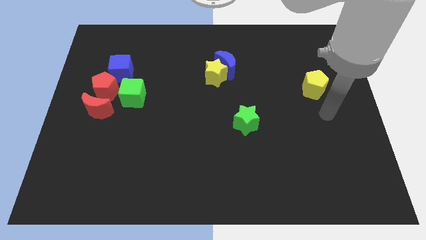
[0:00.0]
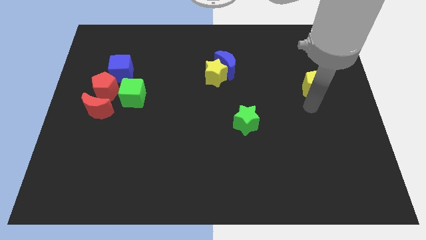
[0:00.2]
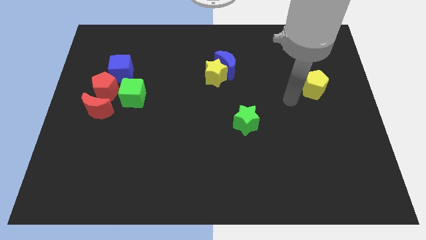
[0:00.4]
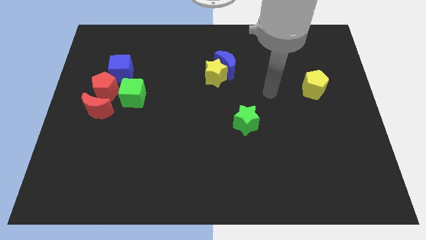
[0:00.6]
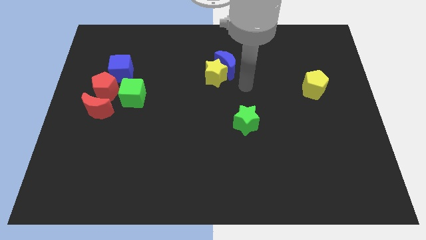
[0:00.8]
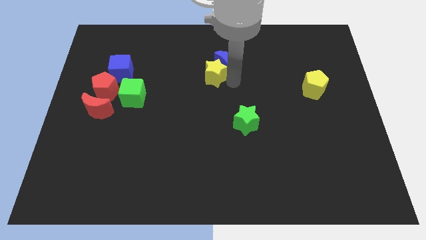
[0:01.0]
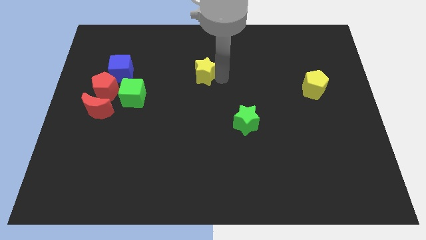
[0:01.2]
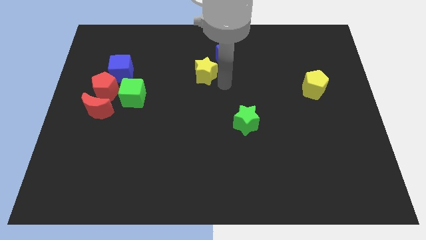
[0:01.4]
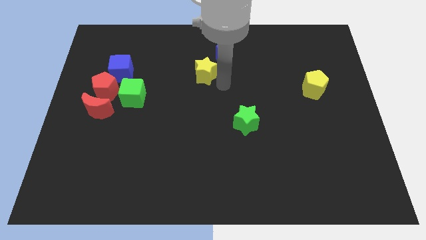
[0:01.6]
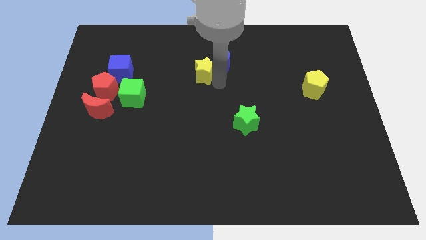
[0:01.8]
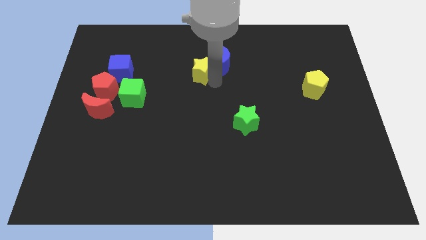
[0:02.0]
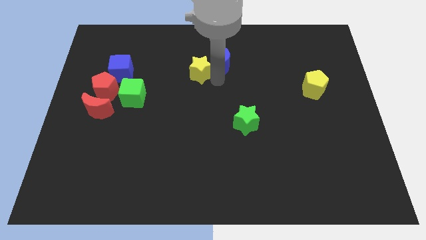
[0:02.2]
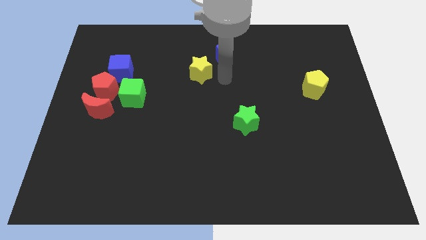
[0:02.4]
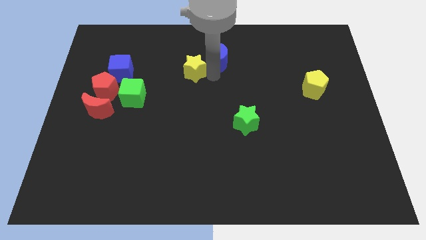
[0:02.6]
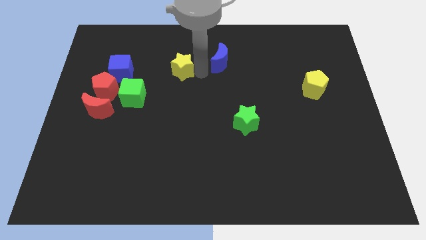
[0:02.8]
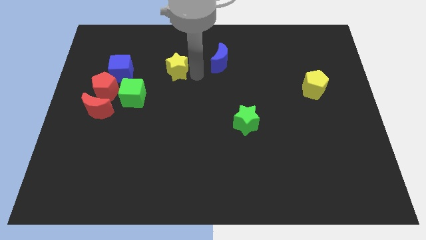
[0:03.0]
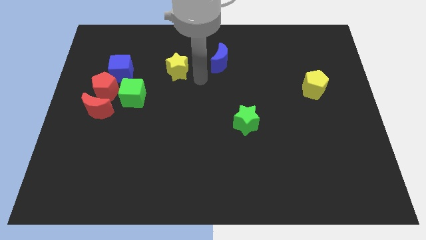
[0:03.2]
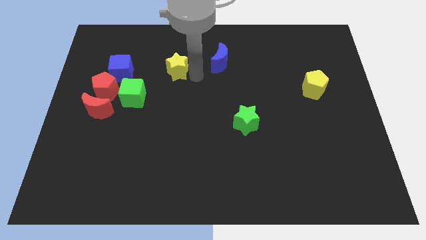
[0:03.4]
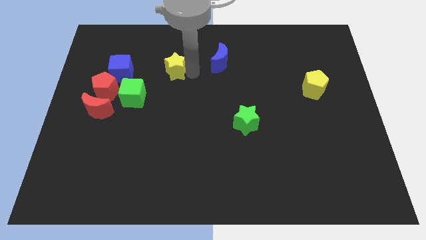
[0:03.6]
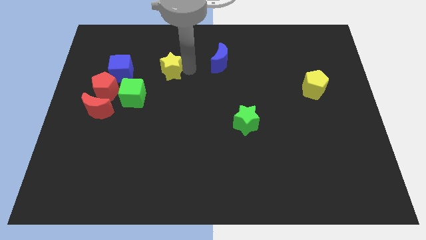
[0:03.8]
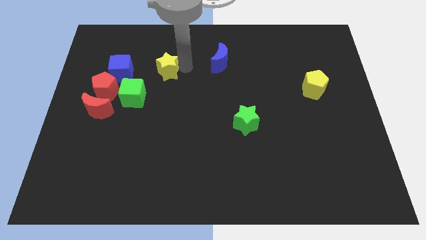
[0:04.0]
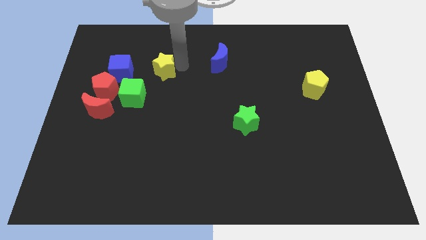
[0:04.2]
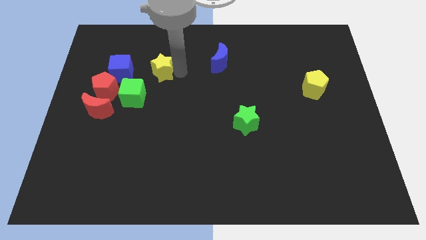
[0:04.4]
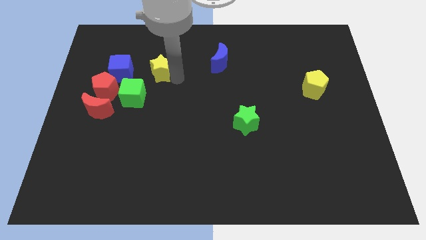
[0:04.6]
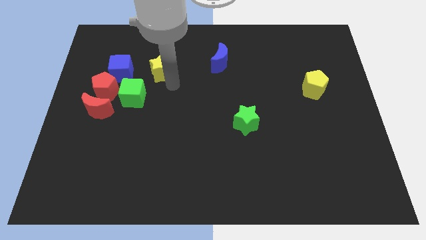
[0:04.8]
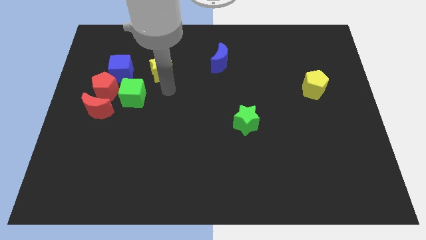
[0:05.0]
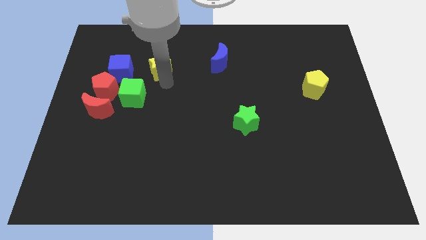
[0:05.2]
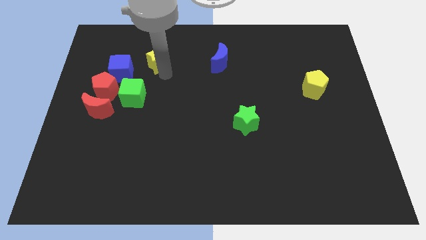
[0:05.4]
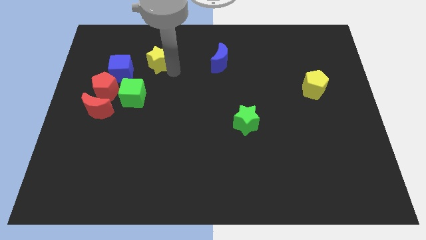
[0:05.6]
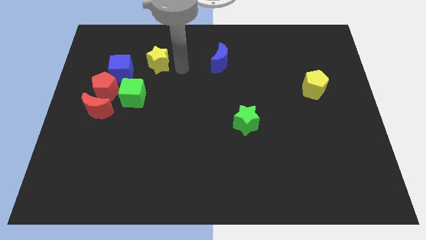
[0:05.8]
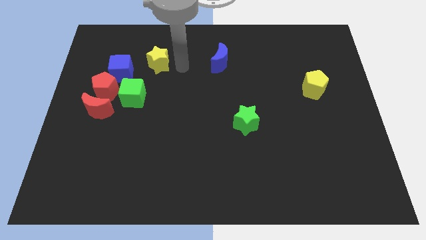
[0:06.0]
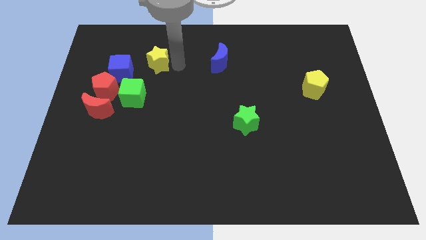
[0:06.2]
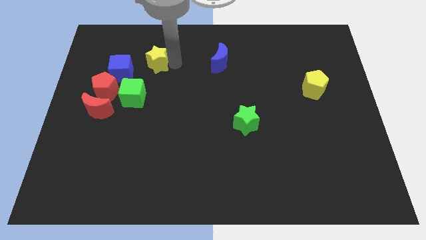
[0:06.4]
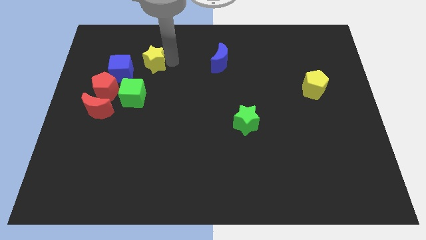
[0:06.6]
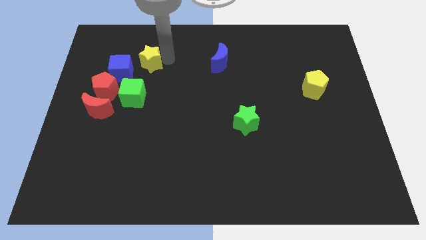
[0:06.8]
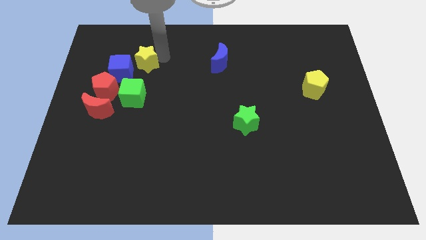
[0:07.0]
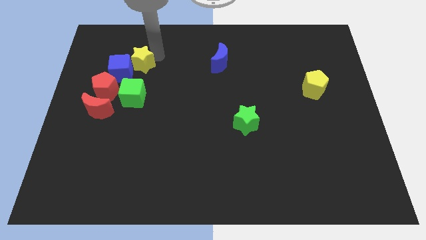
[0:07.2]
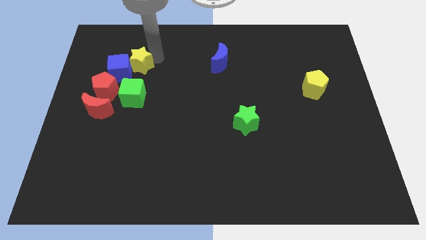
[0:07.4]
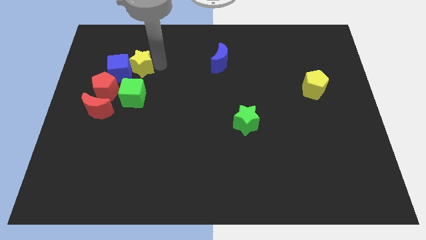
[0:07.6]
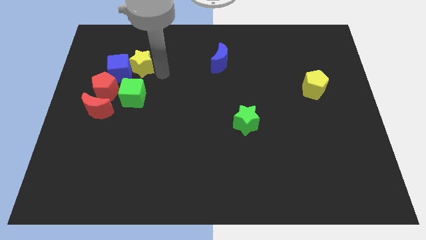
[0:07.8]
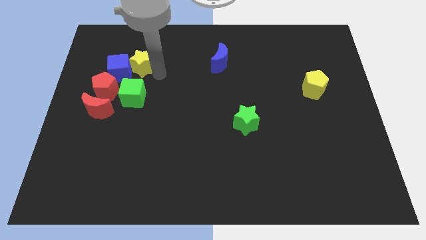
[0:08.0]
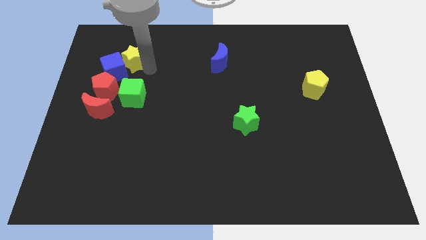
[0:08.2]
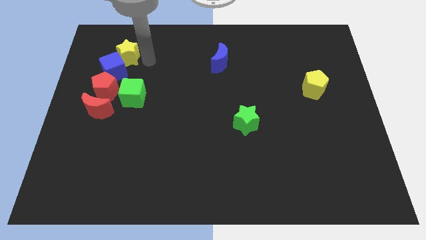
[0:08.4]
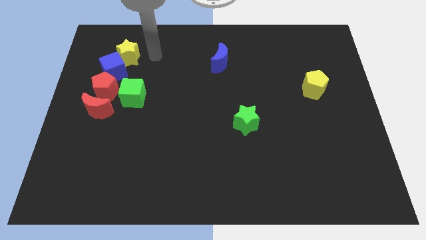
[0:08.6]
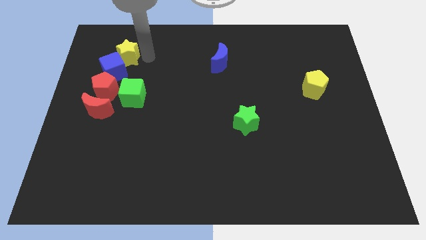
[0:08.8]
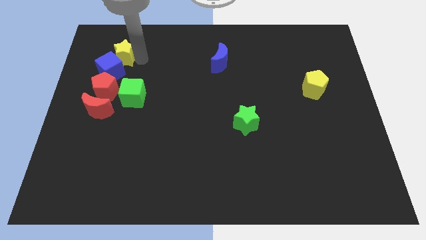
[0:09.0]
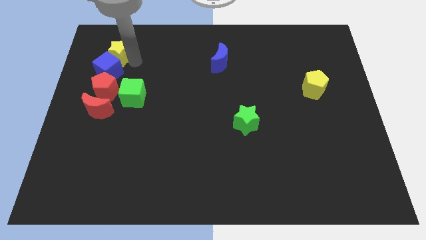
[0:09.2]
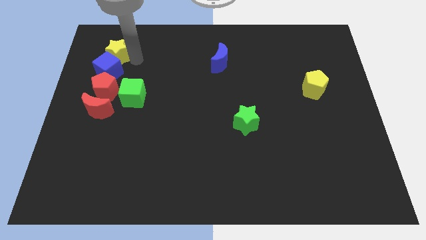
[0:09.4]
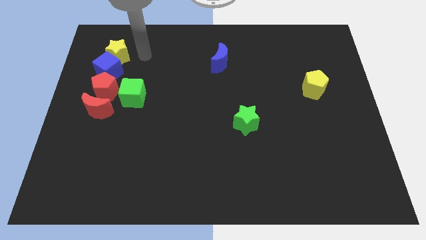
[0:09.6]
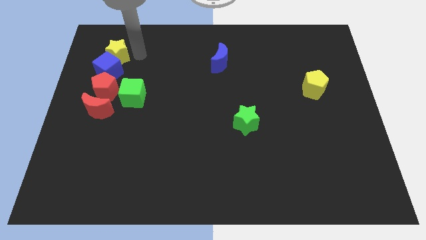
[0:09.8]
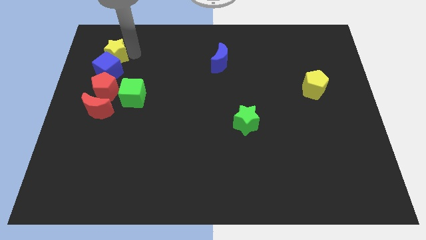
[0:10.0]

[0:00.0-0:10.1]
push the yellow star to the top left side of the blue cube

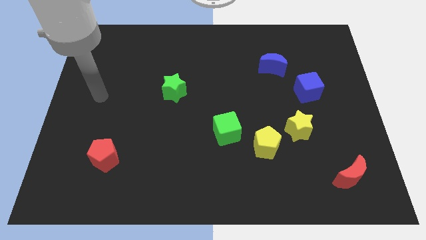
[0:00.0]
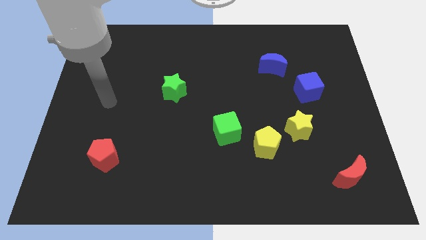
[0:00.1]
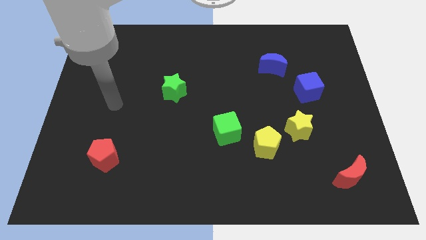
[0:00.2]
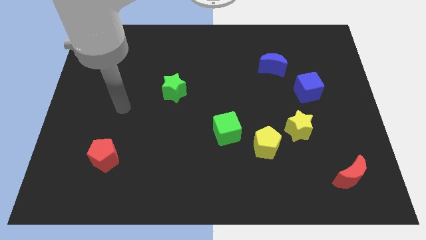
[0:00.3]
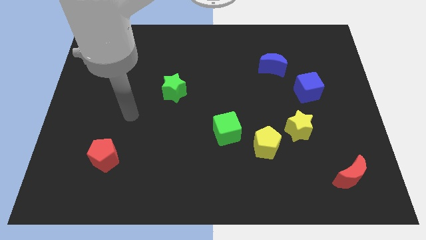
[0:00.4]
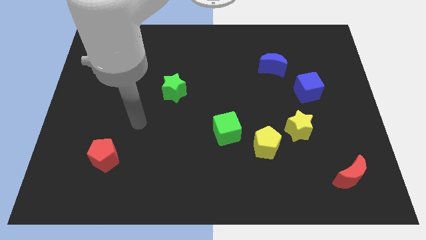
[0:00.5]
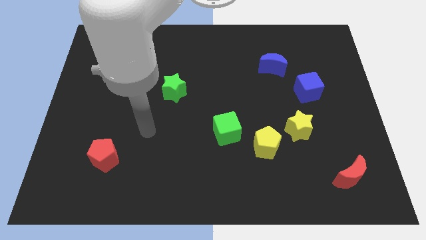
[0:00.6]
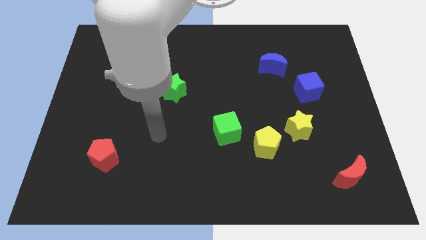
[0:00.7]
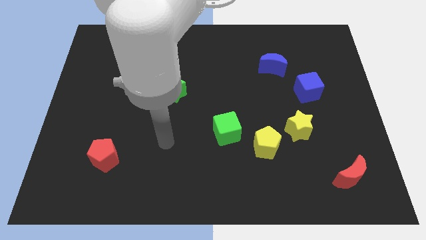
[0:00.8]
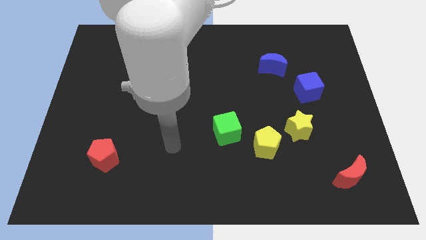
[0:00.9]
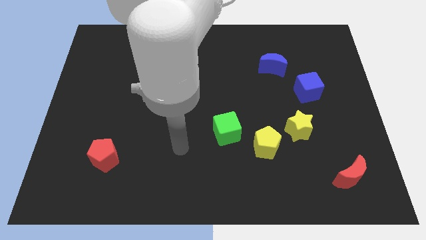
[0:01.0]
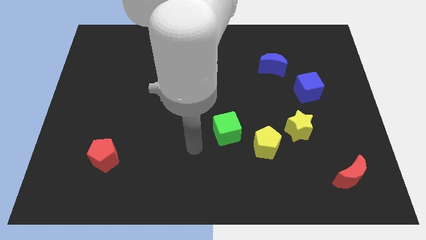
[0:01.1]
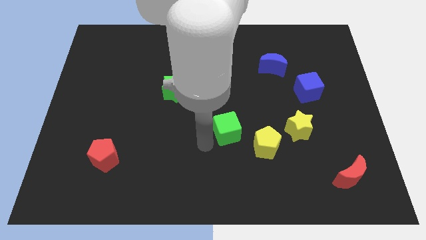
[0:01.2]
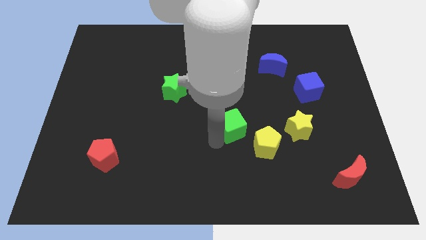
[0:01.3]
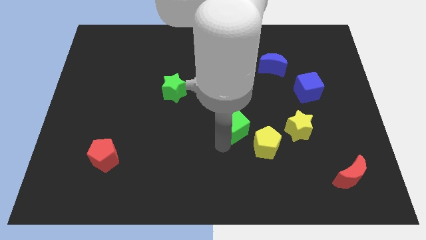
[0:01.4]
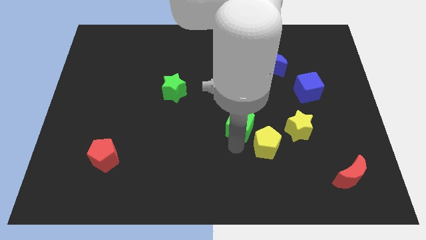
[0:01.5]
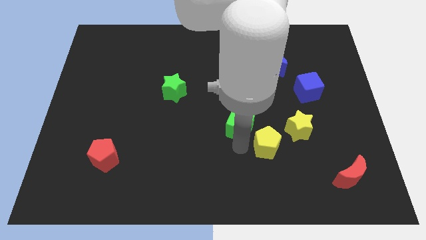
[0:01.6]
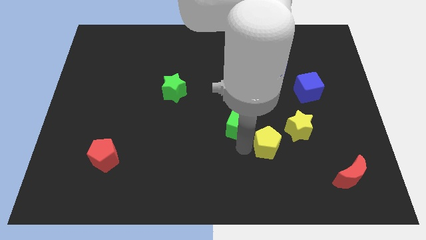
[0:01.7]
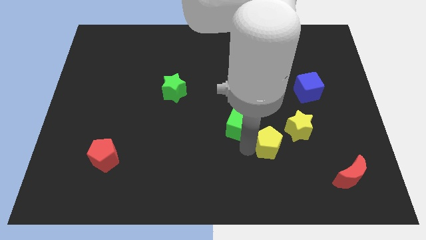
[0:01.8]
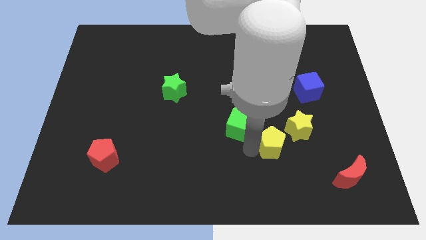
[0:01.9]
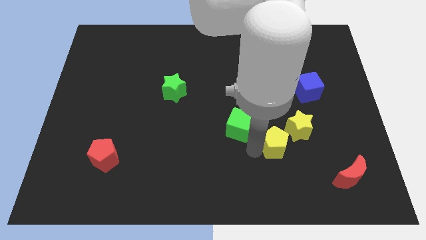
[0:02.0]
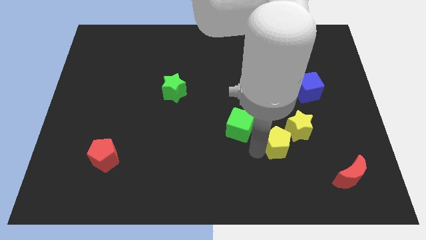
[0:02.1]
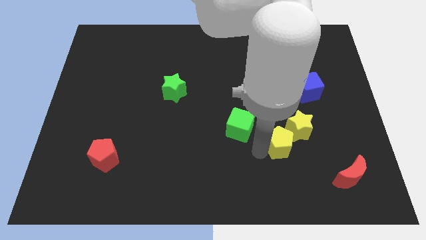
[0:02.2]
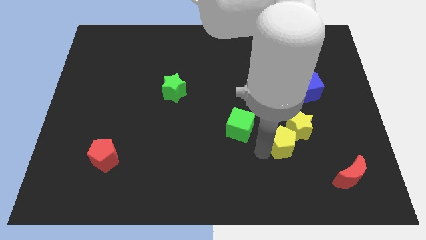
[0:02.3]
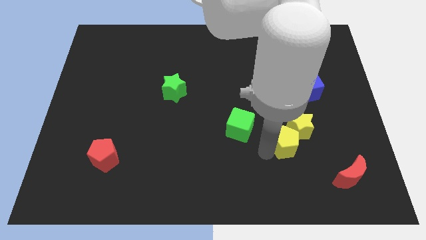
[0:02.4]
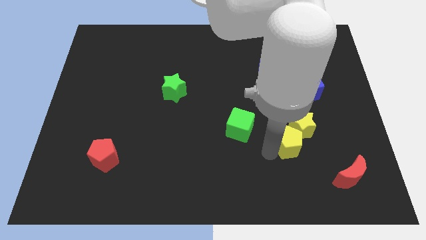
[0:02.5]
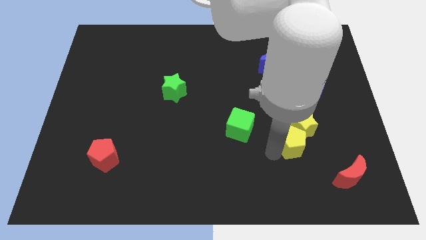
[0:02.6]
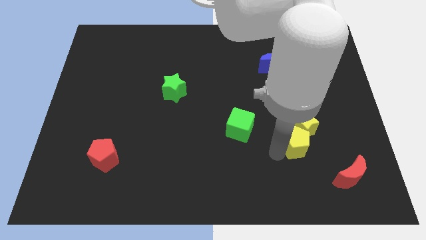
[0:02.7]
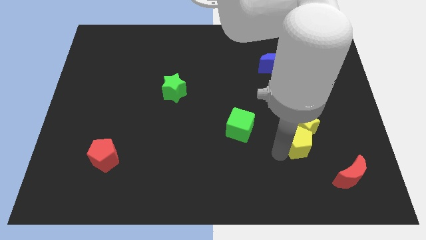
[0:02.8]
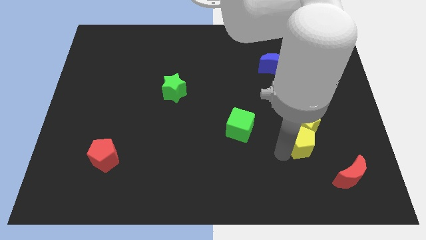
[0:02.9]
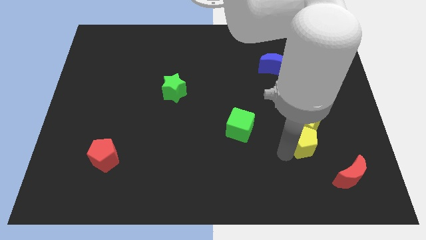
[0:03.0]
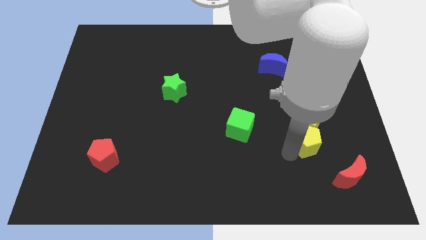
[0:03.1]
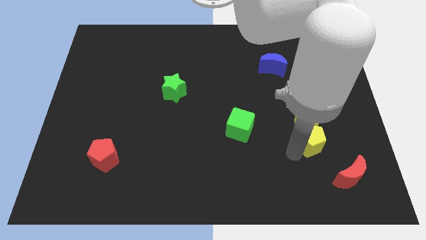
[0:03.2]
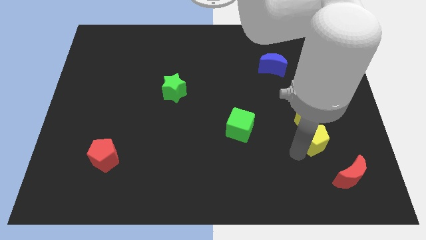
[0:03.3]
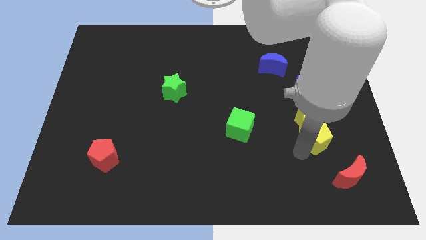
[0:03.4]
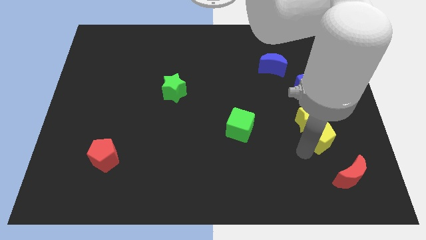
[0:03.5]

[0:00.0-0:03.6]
move the yellow pentagon to the top of the red moon
